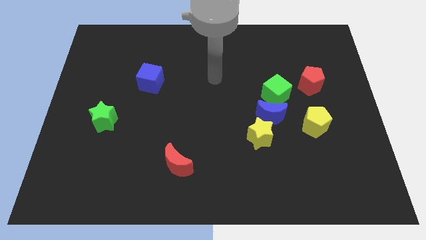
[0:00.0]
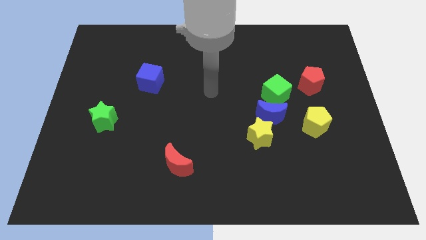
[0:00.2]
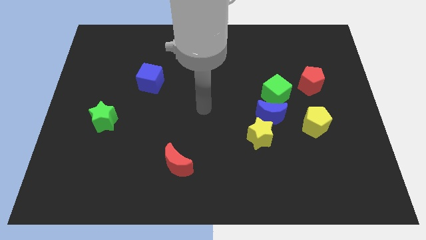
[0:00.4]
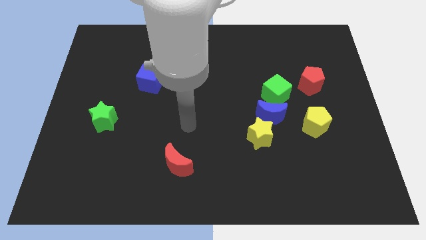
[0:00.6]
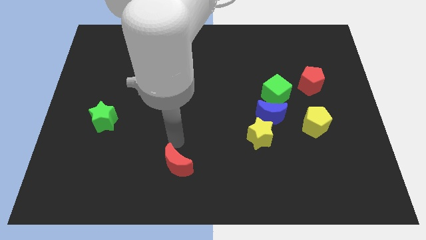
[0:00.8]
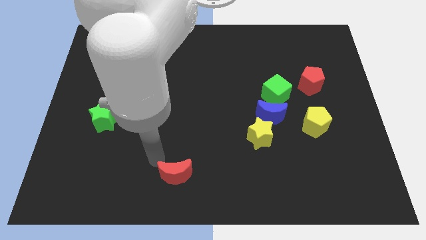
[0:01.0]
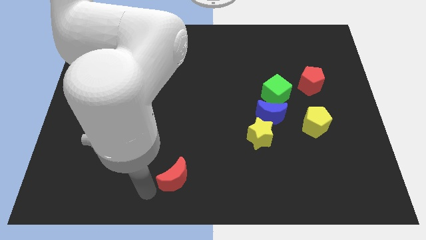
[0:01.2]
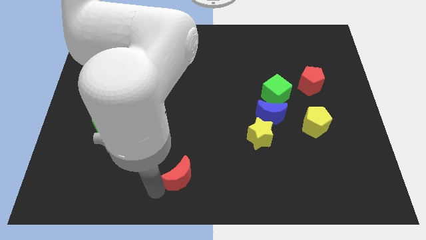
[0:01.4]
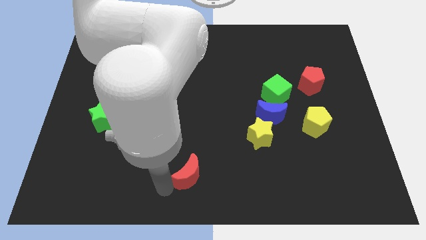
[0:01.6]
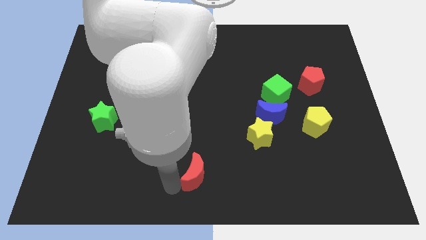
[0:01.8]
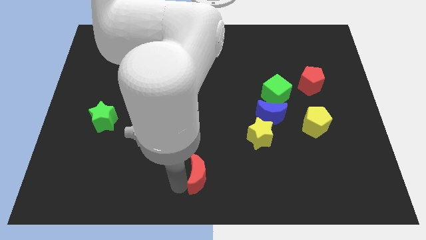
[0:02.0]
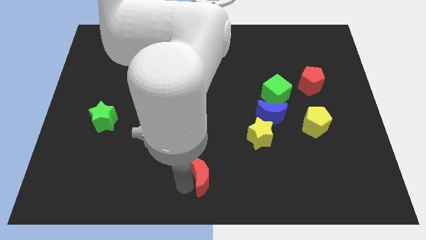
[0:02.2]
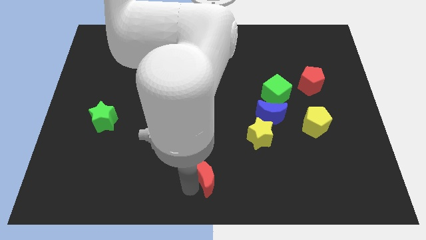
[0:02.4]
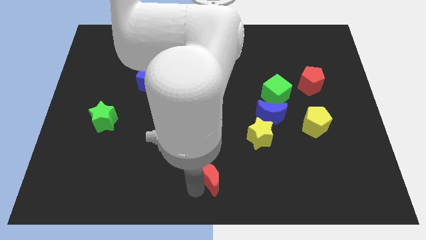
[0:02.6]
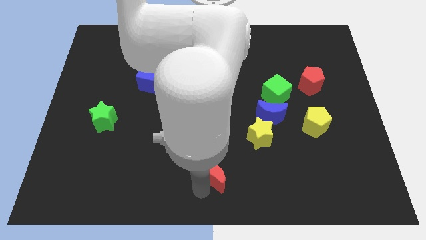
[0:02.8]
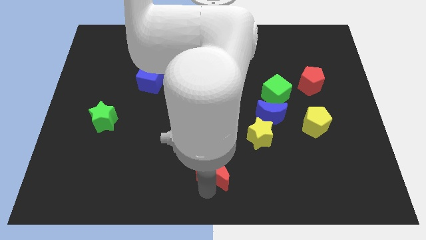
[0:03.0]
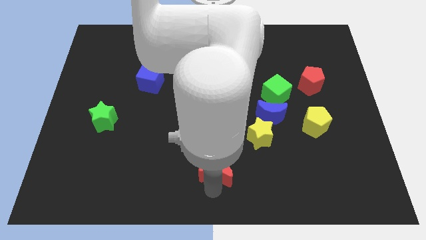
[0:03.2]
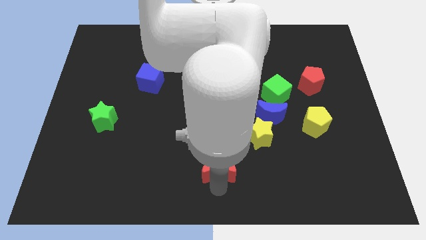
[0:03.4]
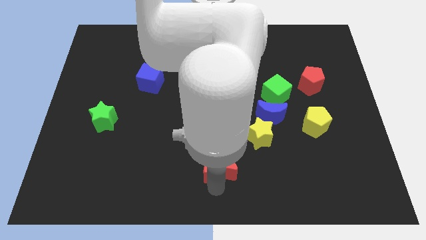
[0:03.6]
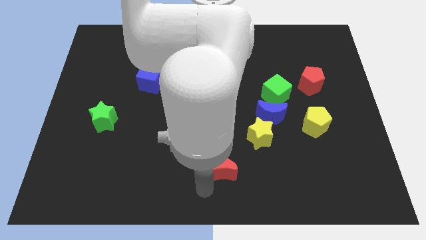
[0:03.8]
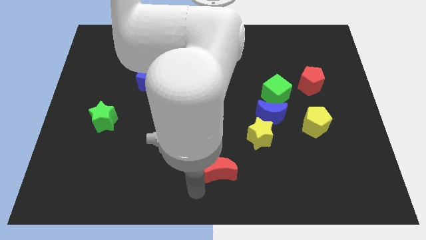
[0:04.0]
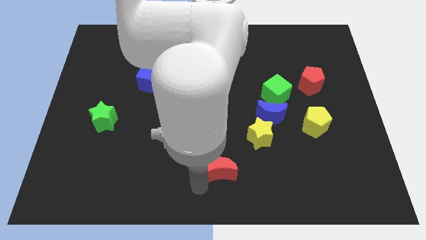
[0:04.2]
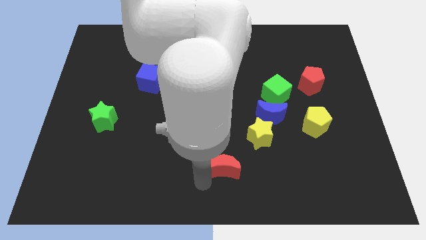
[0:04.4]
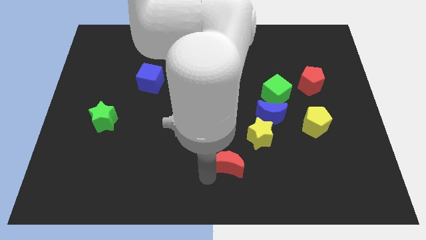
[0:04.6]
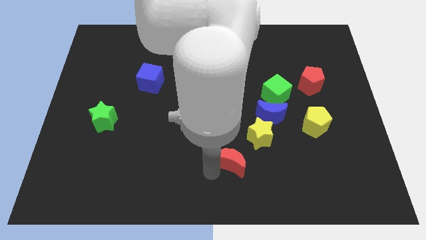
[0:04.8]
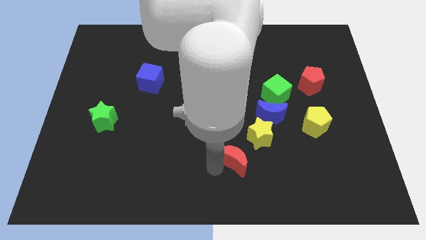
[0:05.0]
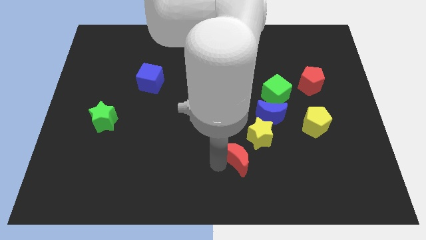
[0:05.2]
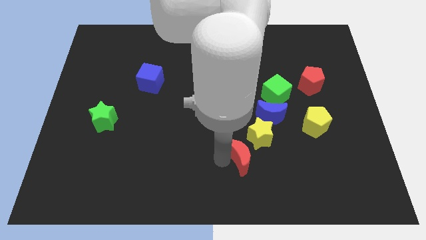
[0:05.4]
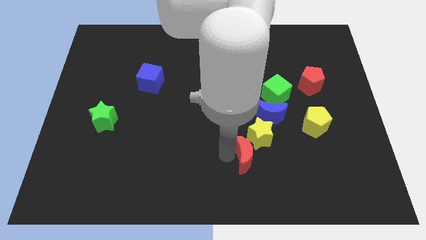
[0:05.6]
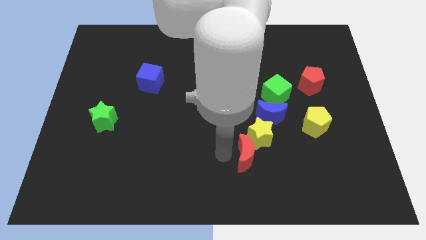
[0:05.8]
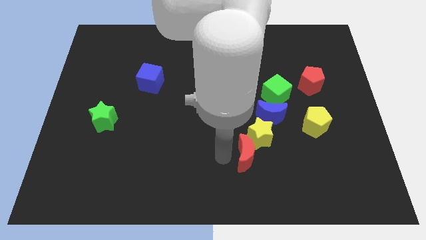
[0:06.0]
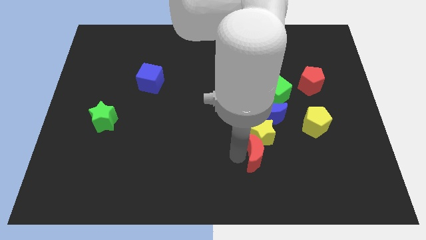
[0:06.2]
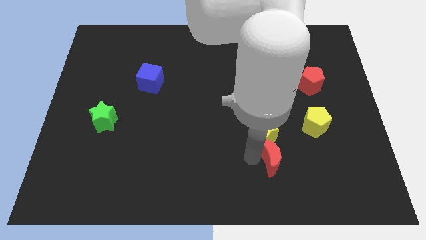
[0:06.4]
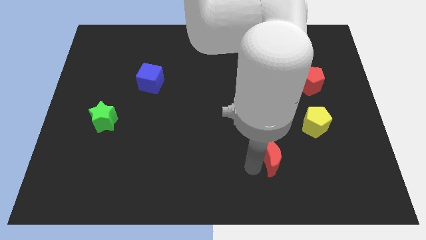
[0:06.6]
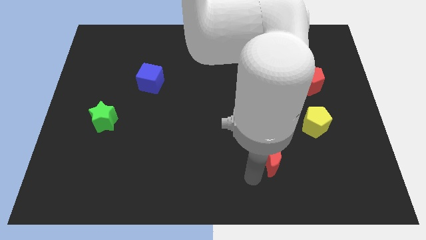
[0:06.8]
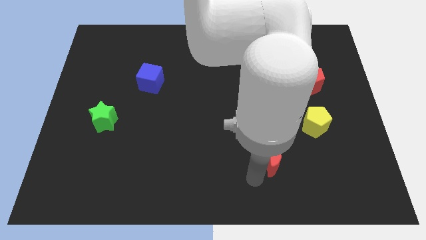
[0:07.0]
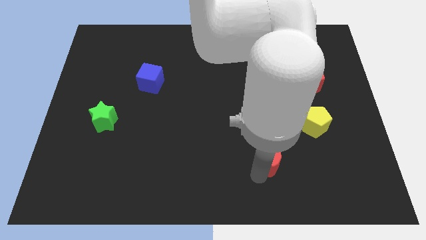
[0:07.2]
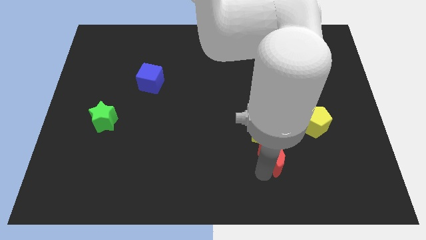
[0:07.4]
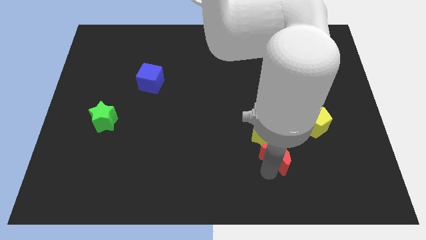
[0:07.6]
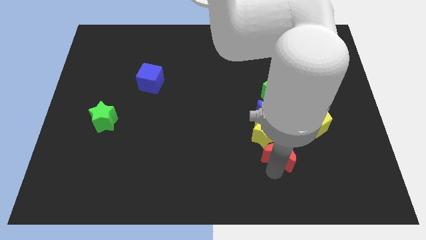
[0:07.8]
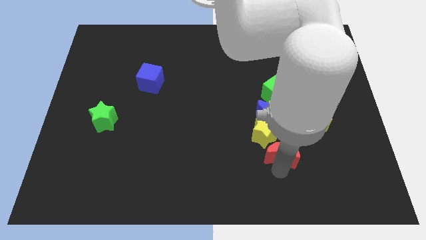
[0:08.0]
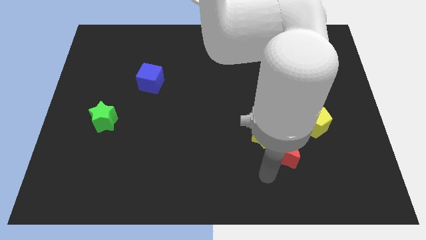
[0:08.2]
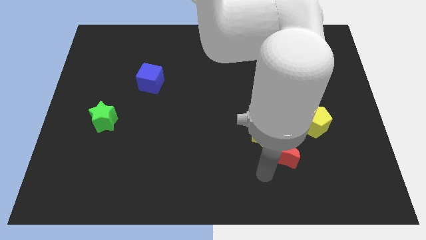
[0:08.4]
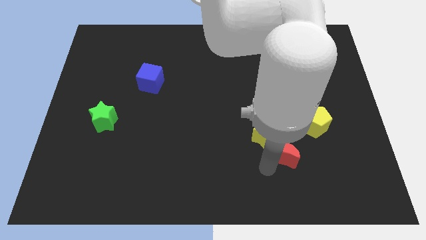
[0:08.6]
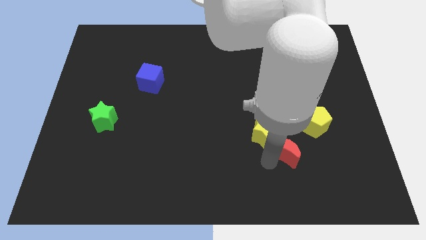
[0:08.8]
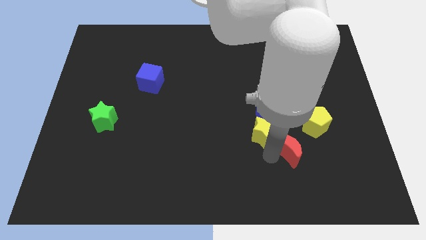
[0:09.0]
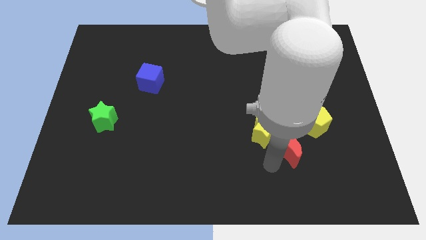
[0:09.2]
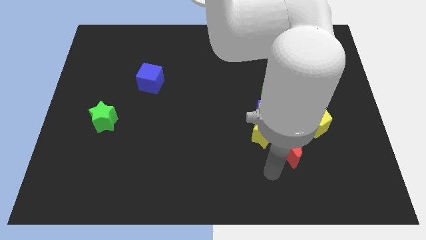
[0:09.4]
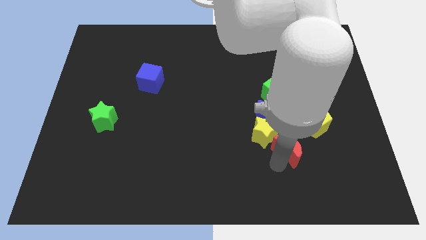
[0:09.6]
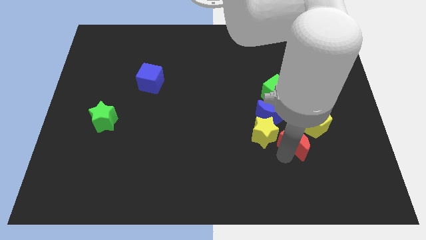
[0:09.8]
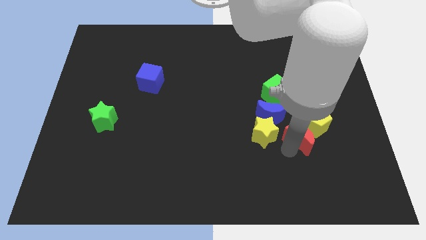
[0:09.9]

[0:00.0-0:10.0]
push the red moon next to the yellow pentagon

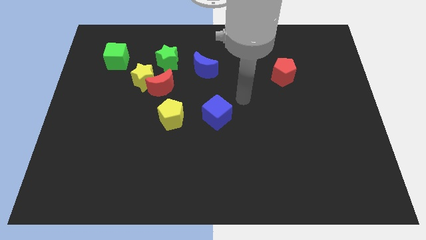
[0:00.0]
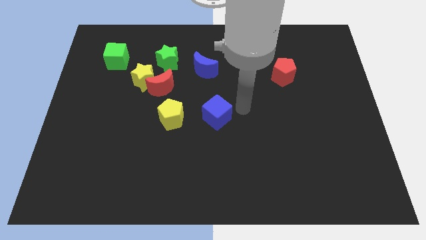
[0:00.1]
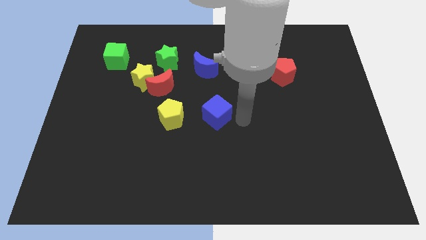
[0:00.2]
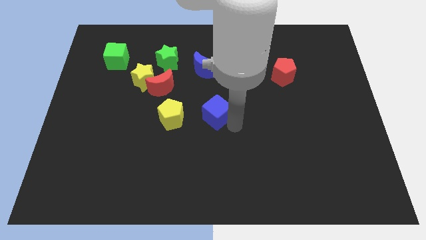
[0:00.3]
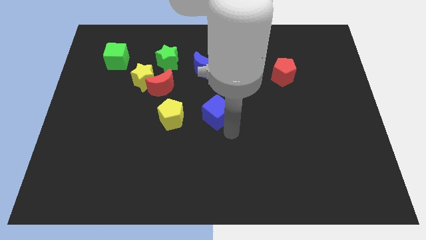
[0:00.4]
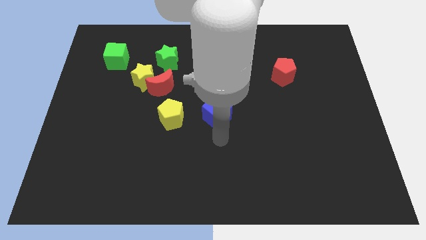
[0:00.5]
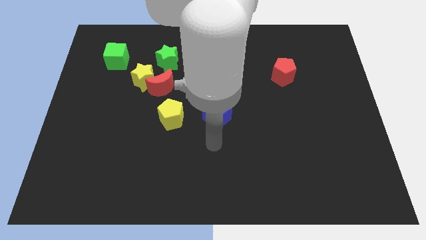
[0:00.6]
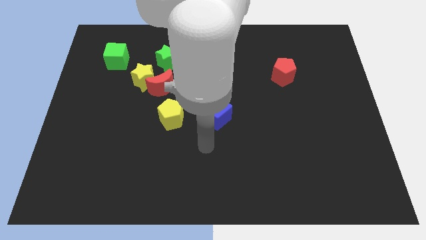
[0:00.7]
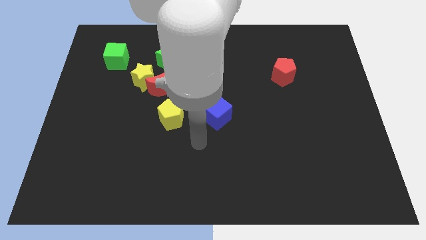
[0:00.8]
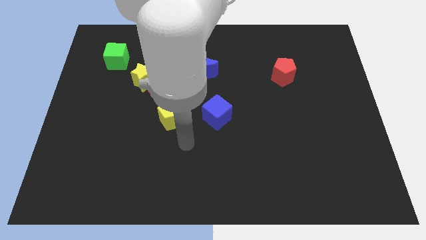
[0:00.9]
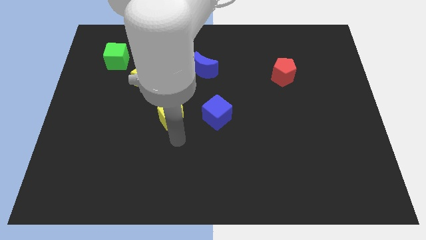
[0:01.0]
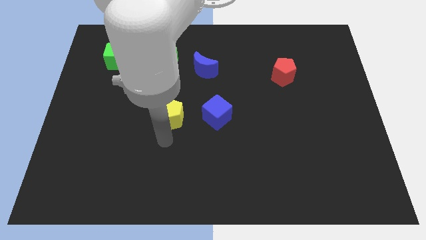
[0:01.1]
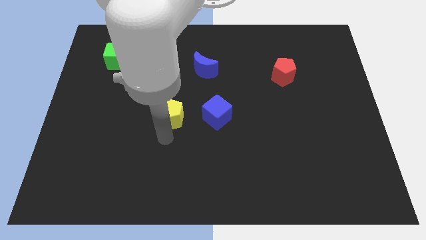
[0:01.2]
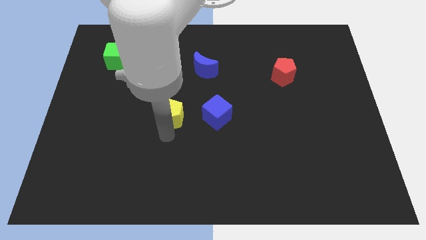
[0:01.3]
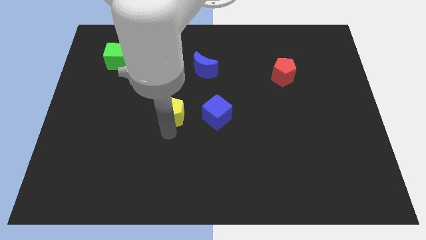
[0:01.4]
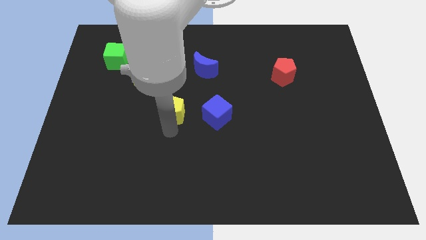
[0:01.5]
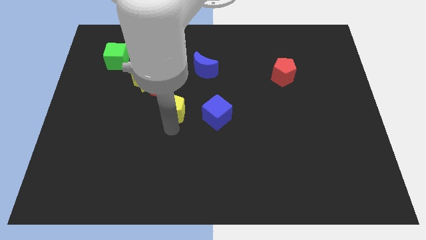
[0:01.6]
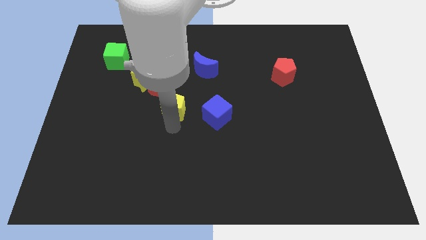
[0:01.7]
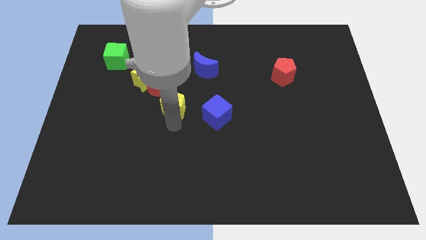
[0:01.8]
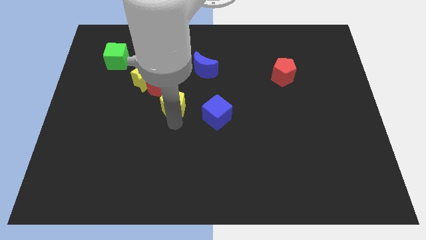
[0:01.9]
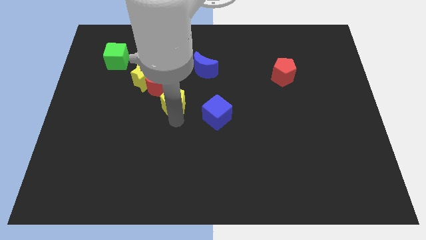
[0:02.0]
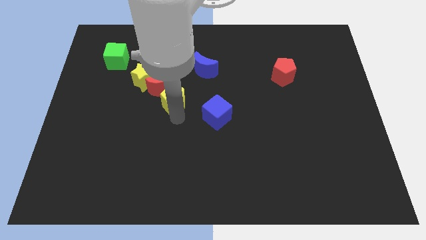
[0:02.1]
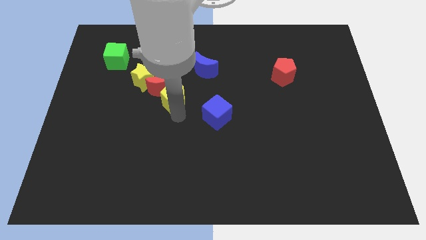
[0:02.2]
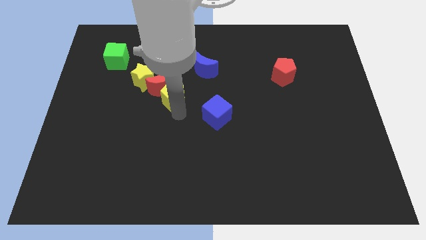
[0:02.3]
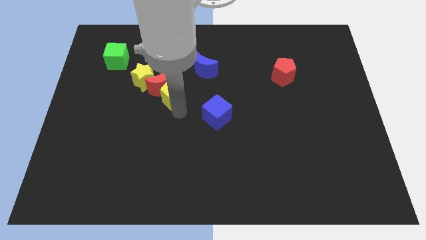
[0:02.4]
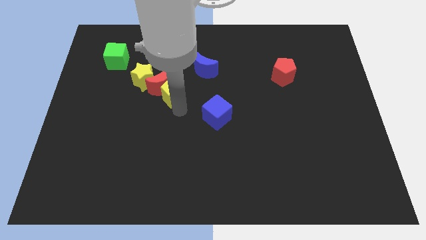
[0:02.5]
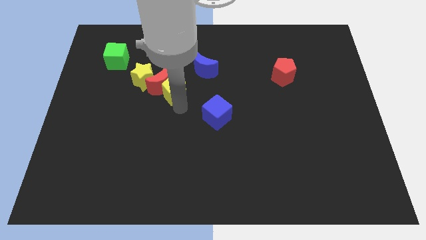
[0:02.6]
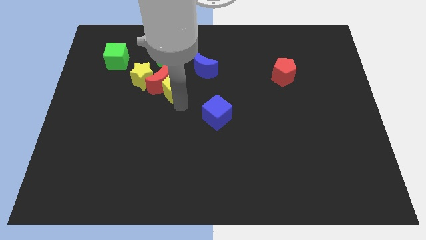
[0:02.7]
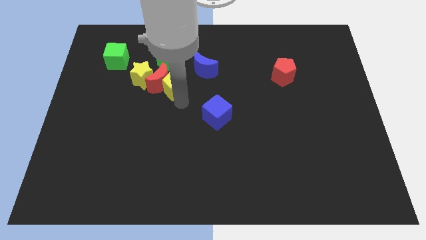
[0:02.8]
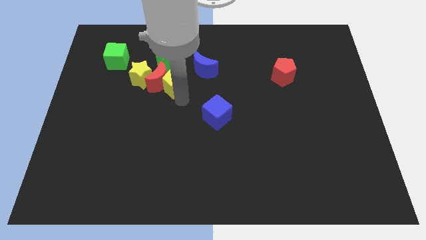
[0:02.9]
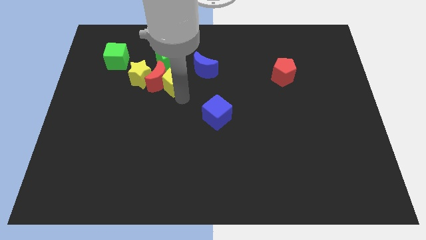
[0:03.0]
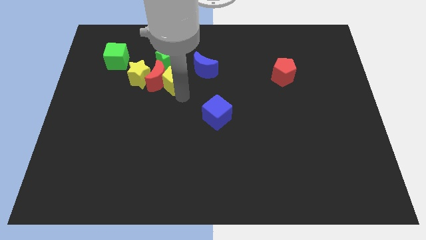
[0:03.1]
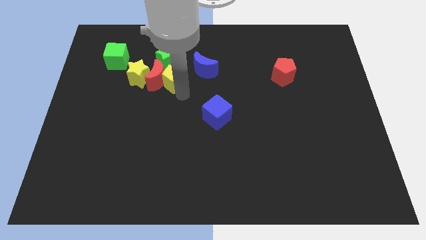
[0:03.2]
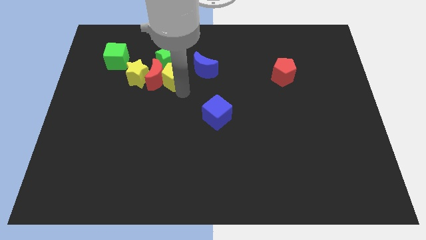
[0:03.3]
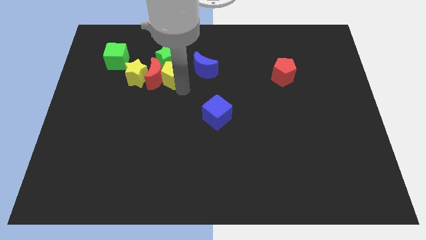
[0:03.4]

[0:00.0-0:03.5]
move the yellow pentagon close to the green star
